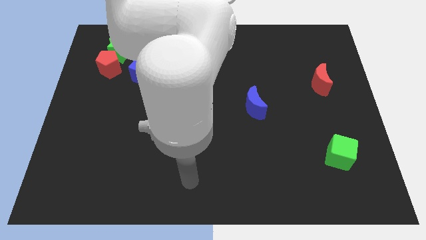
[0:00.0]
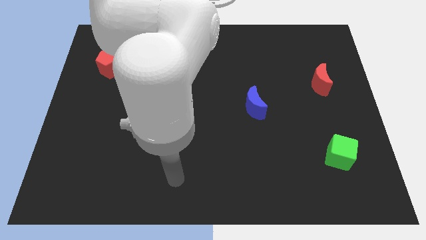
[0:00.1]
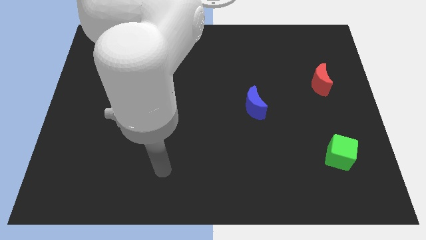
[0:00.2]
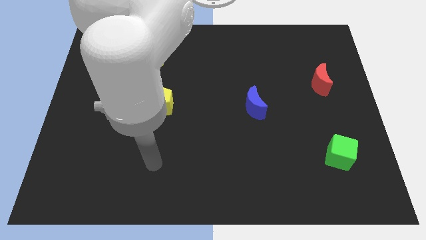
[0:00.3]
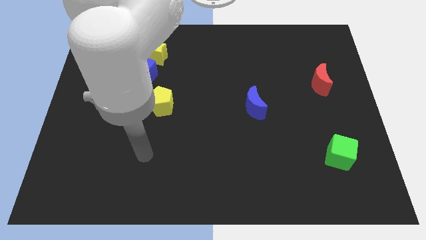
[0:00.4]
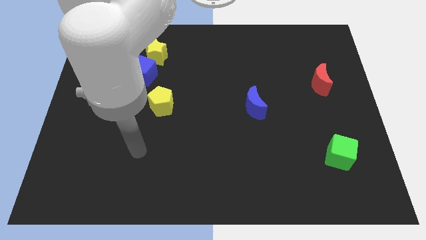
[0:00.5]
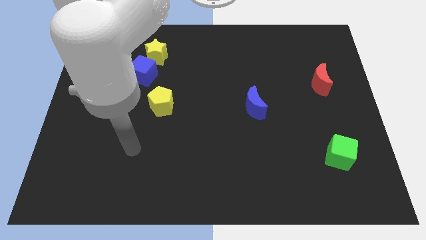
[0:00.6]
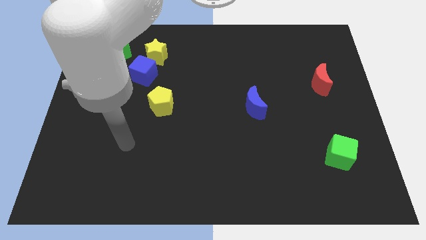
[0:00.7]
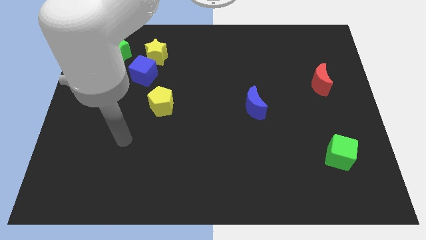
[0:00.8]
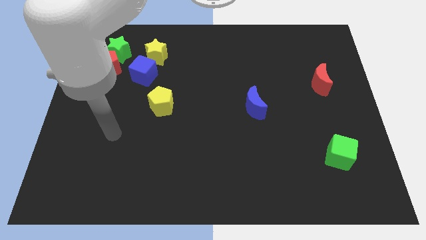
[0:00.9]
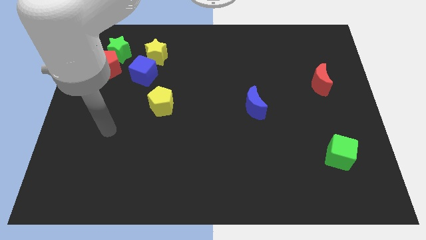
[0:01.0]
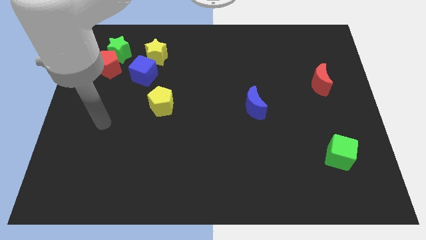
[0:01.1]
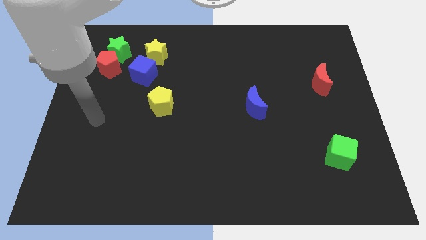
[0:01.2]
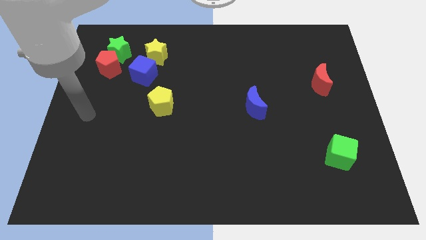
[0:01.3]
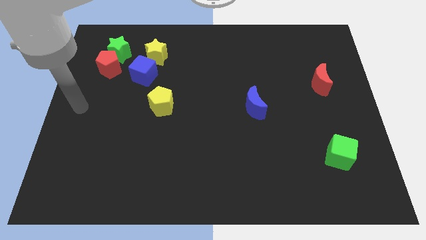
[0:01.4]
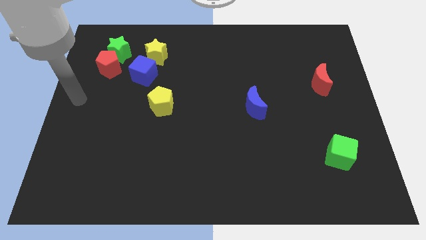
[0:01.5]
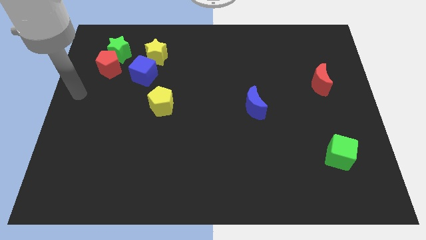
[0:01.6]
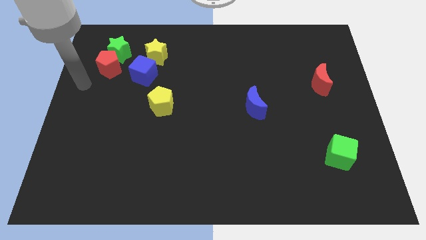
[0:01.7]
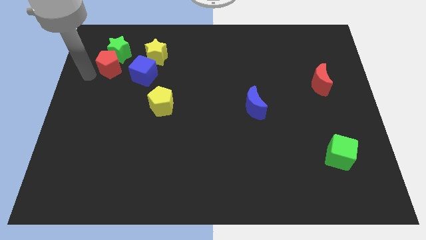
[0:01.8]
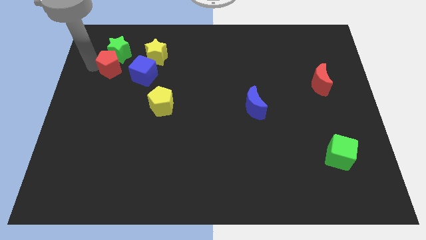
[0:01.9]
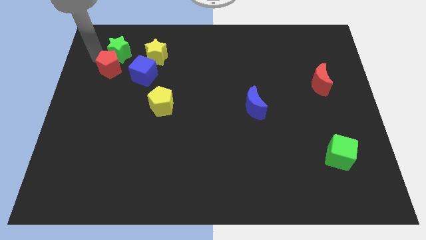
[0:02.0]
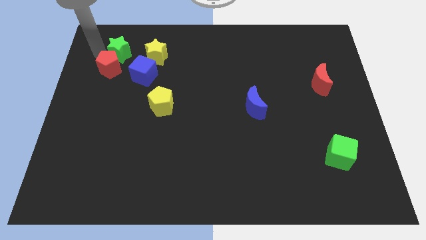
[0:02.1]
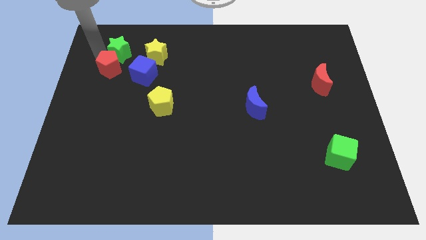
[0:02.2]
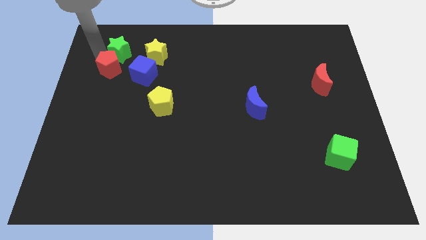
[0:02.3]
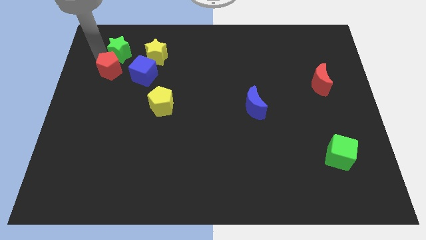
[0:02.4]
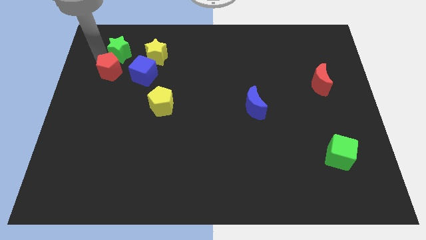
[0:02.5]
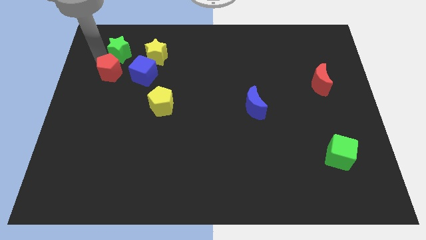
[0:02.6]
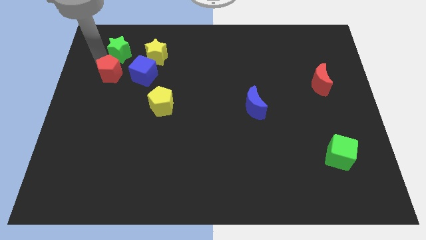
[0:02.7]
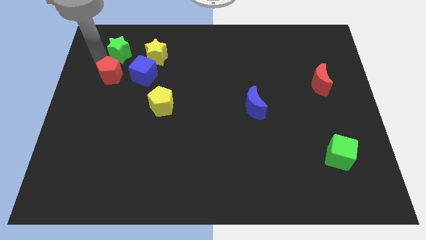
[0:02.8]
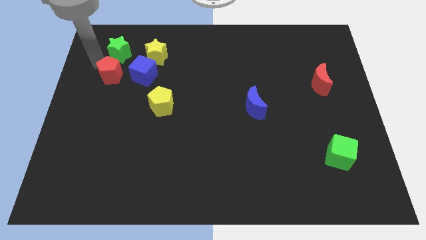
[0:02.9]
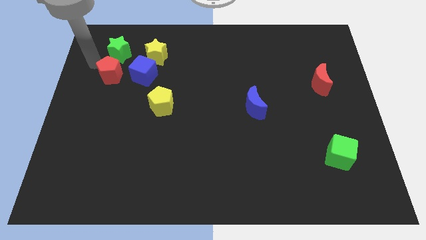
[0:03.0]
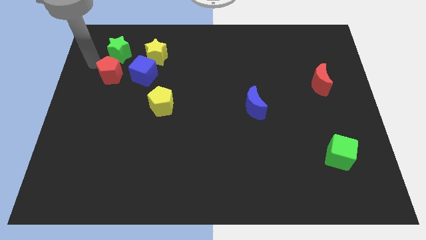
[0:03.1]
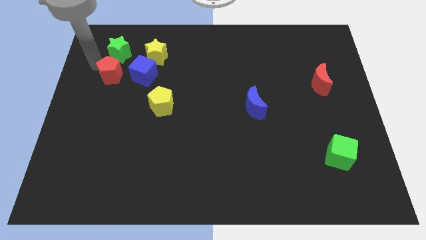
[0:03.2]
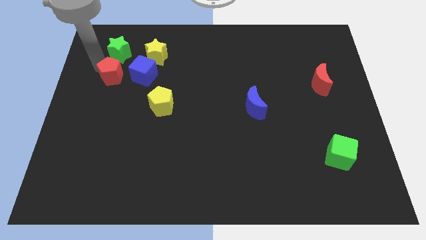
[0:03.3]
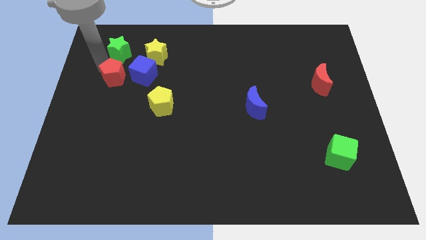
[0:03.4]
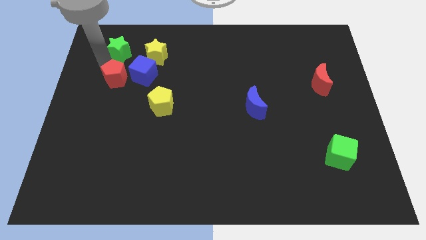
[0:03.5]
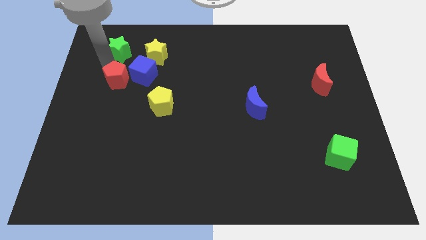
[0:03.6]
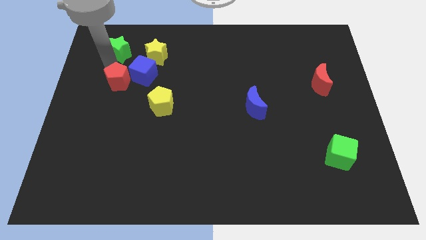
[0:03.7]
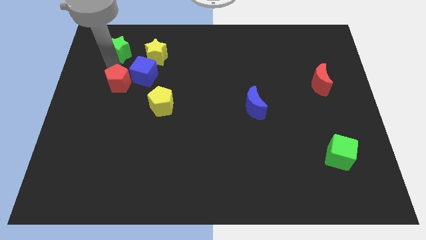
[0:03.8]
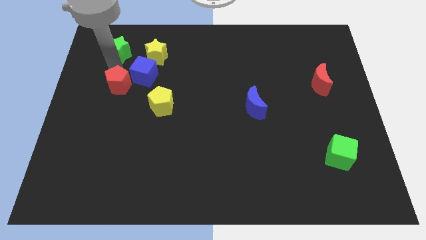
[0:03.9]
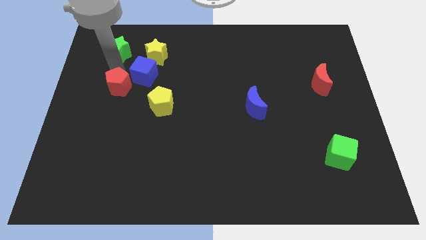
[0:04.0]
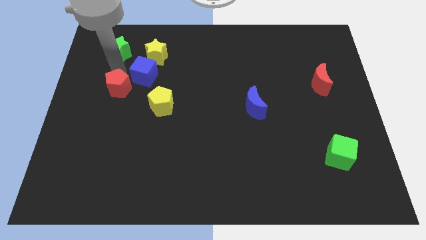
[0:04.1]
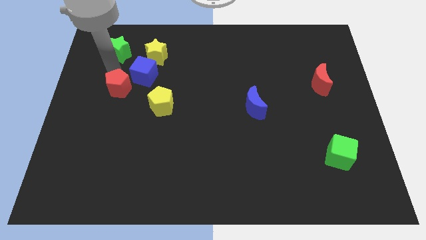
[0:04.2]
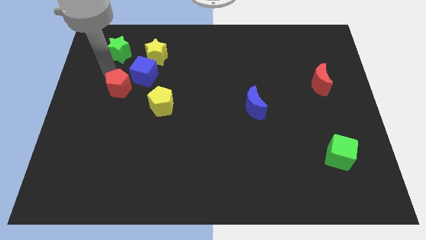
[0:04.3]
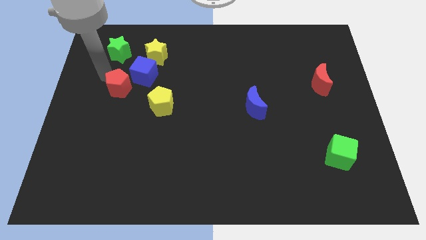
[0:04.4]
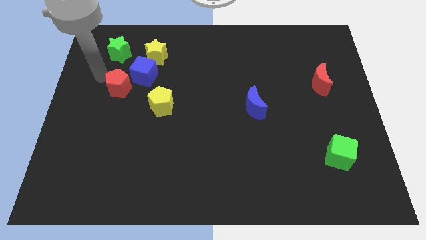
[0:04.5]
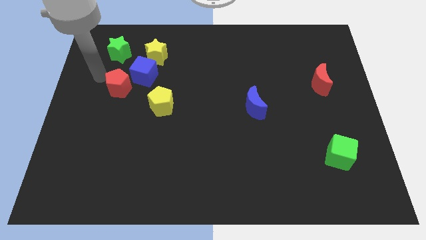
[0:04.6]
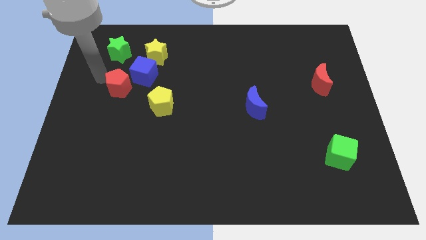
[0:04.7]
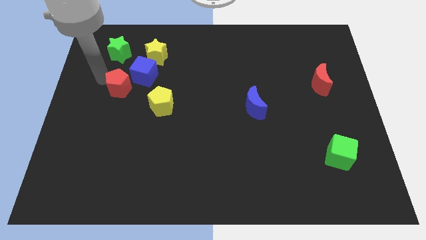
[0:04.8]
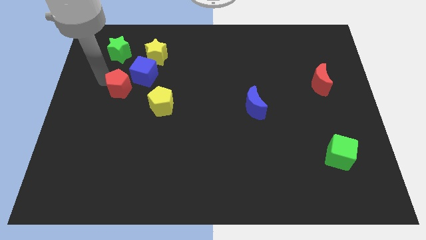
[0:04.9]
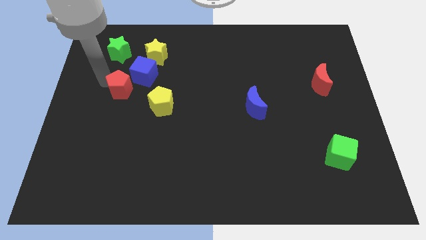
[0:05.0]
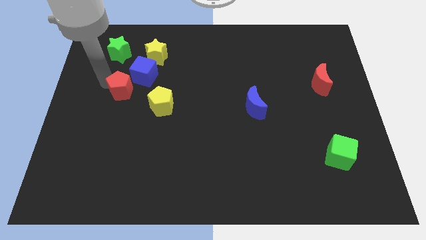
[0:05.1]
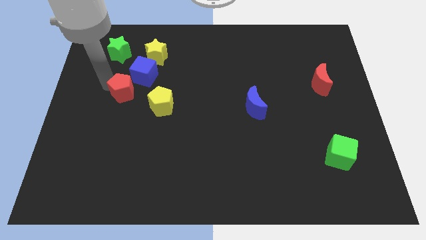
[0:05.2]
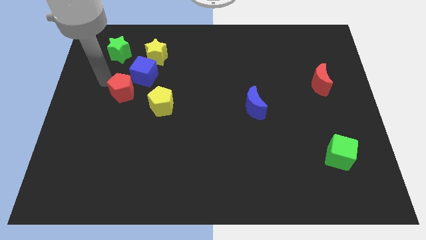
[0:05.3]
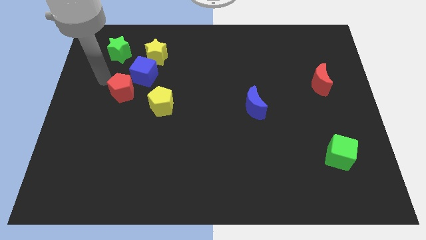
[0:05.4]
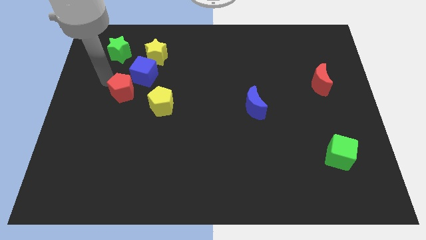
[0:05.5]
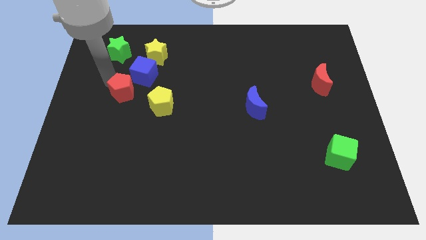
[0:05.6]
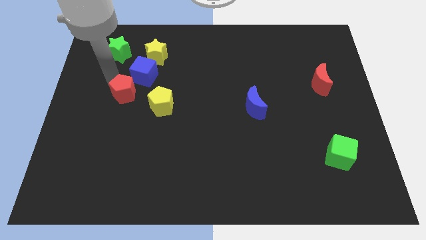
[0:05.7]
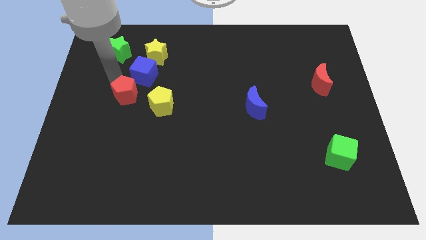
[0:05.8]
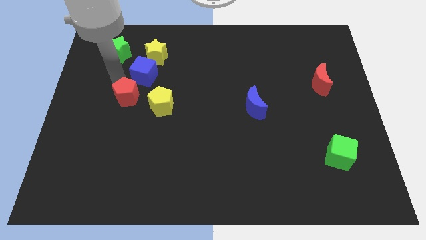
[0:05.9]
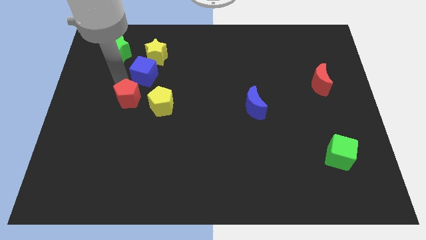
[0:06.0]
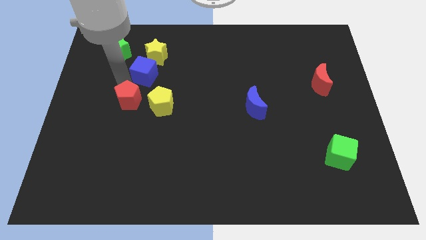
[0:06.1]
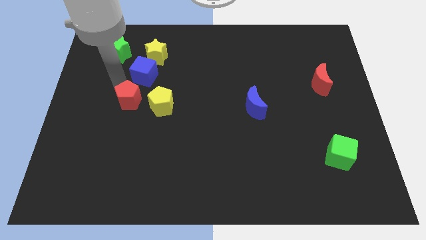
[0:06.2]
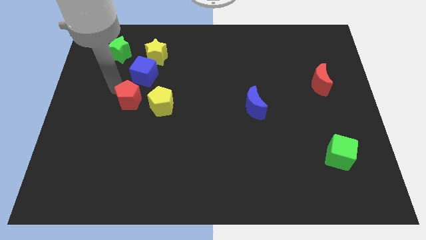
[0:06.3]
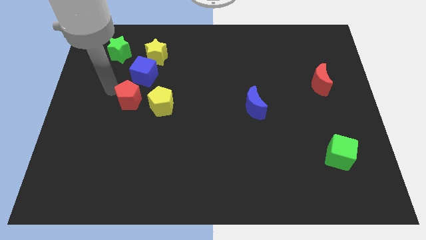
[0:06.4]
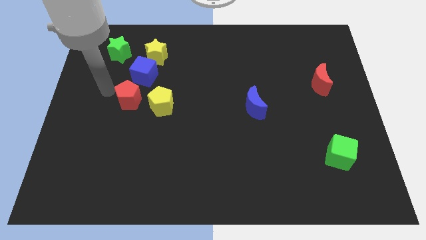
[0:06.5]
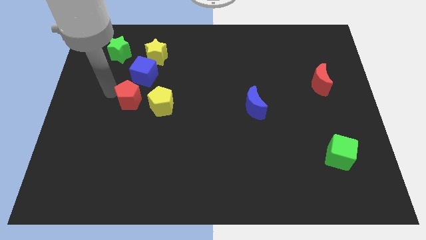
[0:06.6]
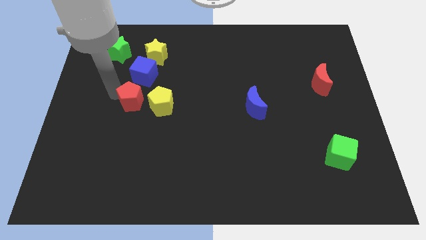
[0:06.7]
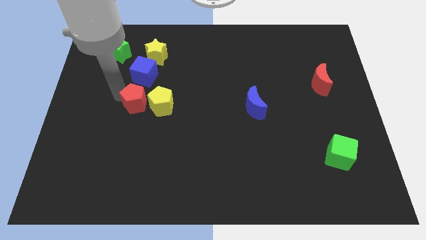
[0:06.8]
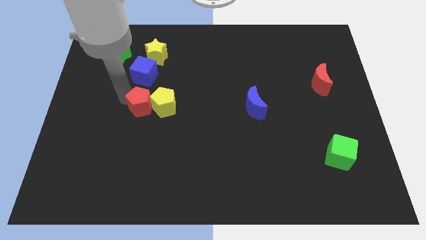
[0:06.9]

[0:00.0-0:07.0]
move the red pentagon next to the yellow pentagon
